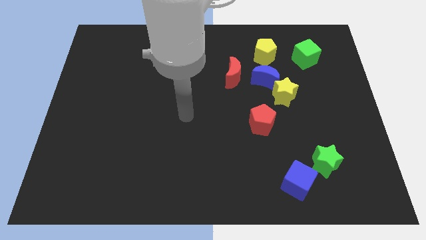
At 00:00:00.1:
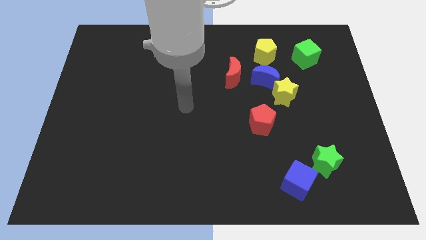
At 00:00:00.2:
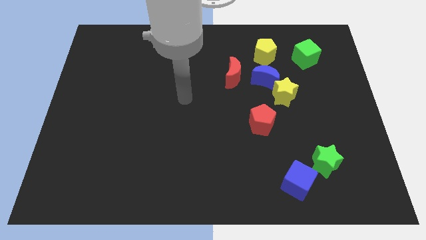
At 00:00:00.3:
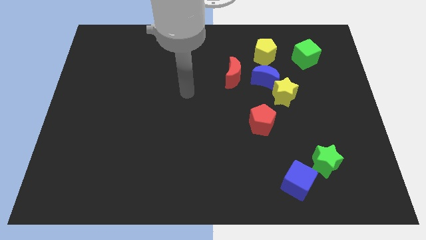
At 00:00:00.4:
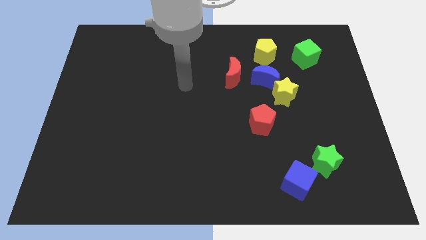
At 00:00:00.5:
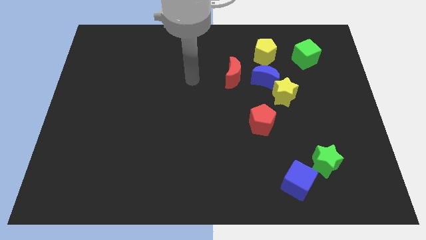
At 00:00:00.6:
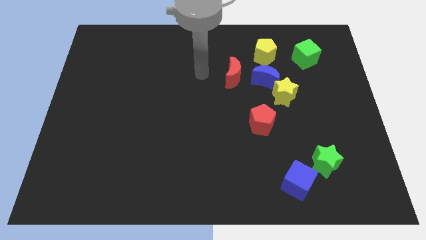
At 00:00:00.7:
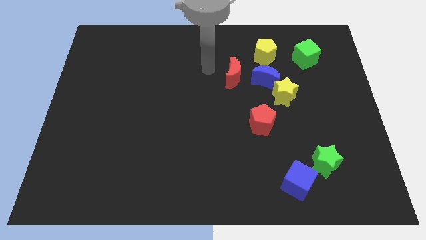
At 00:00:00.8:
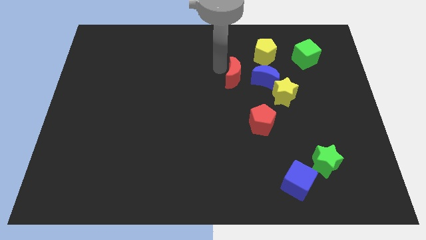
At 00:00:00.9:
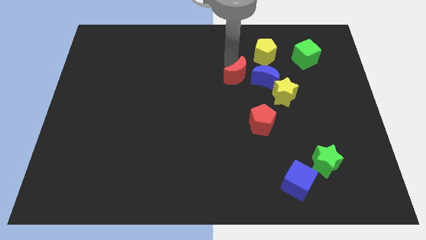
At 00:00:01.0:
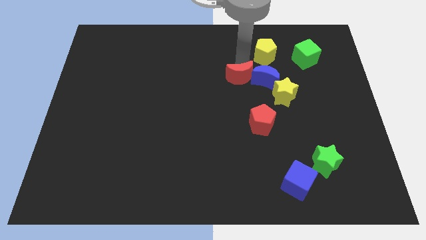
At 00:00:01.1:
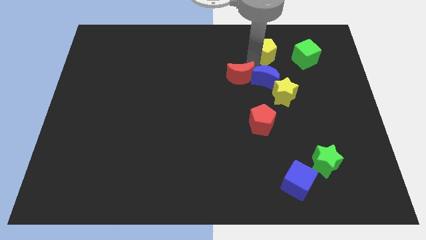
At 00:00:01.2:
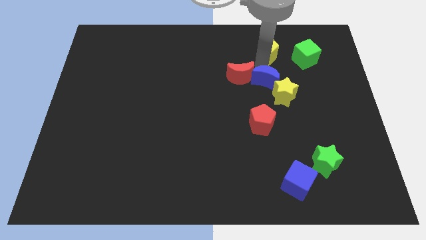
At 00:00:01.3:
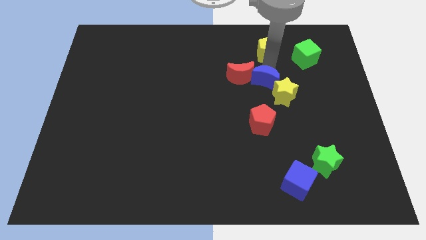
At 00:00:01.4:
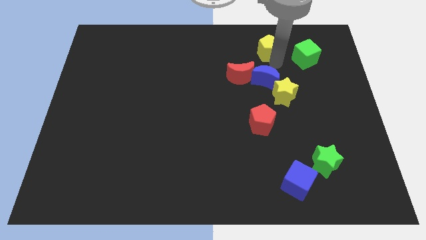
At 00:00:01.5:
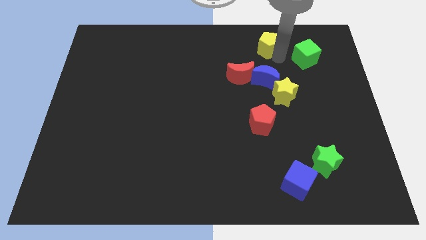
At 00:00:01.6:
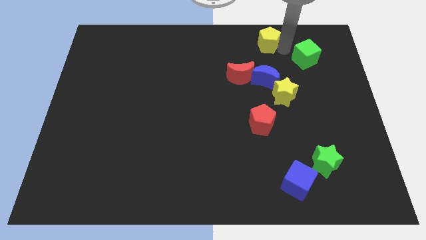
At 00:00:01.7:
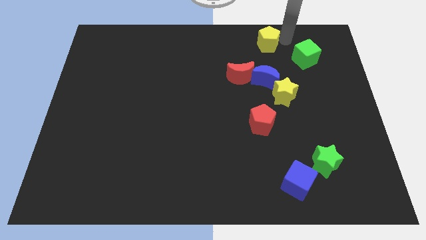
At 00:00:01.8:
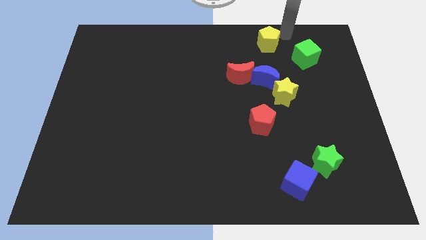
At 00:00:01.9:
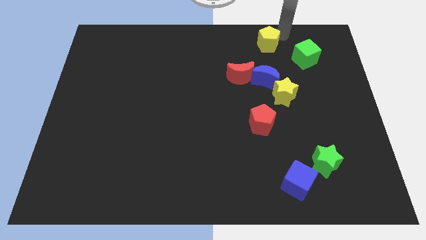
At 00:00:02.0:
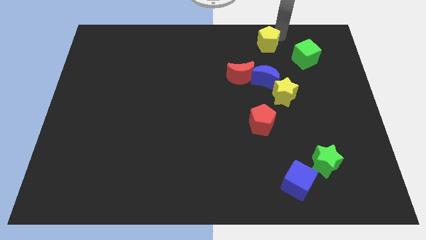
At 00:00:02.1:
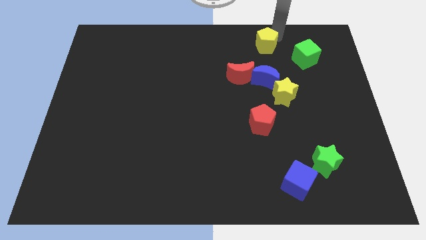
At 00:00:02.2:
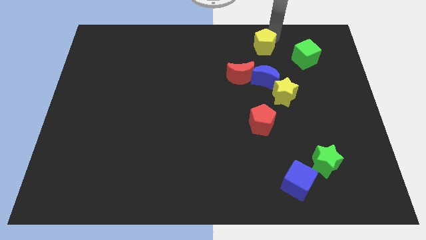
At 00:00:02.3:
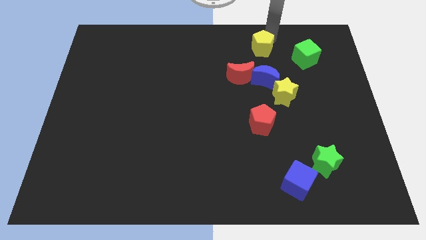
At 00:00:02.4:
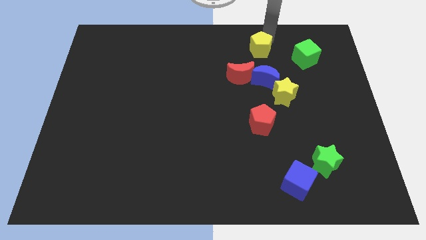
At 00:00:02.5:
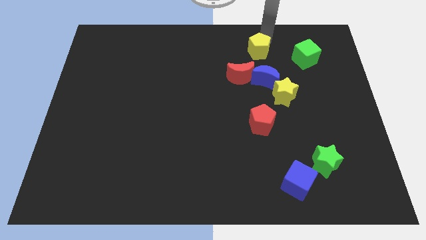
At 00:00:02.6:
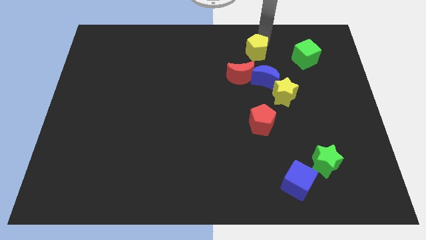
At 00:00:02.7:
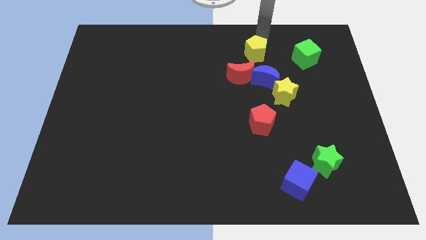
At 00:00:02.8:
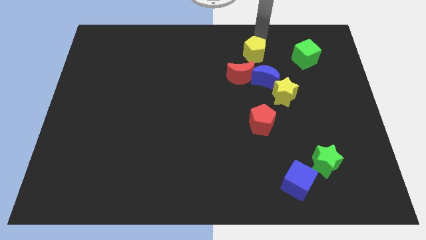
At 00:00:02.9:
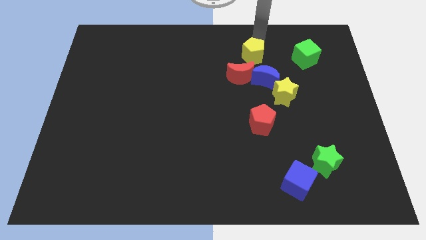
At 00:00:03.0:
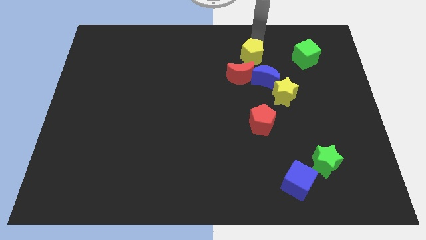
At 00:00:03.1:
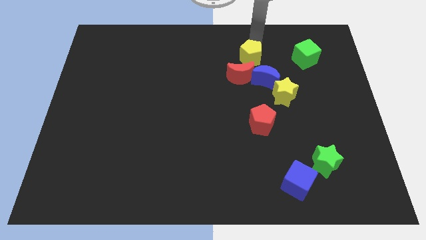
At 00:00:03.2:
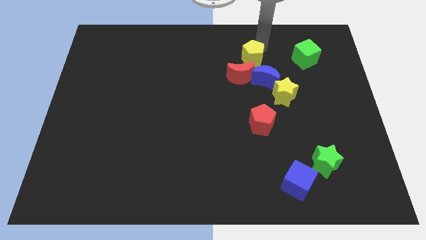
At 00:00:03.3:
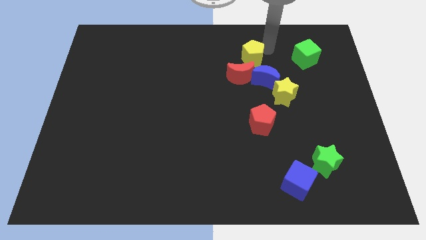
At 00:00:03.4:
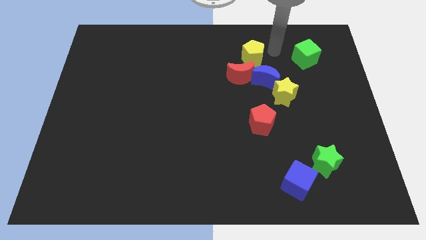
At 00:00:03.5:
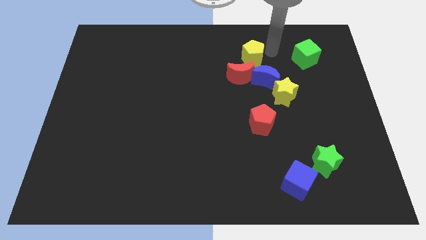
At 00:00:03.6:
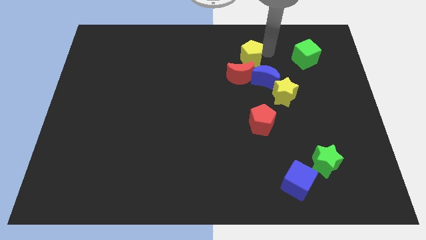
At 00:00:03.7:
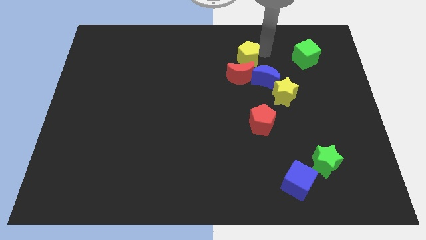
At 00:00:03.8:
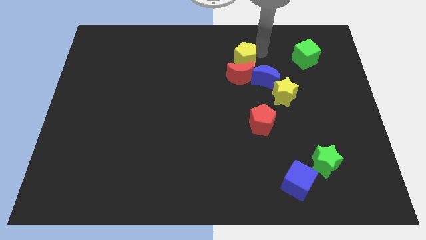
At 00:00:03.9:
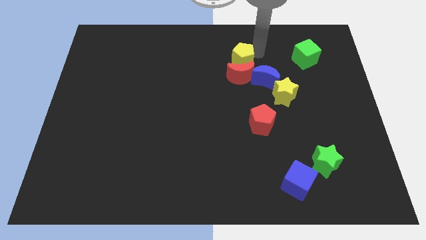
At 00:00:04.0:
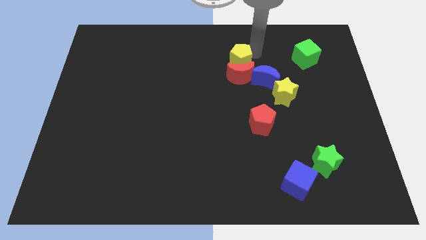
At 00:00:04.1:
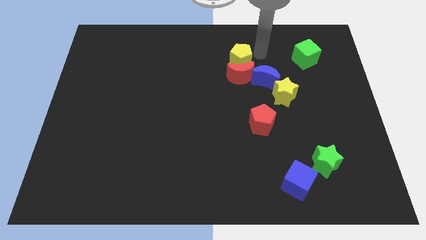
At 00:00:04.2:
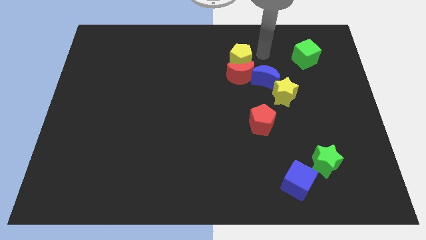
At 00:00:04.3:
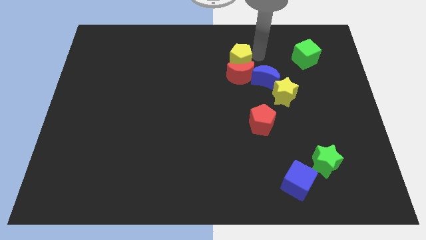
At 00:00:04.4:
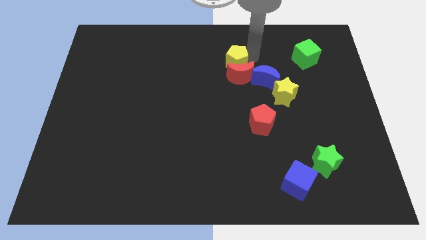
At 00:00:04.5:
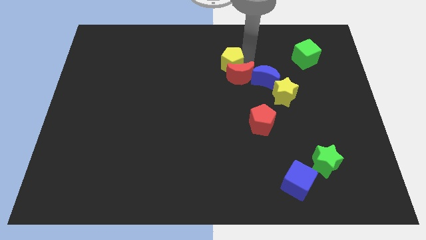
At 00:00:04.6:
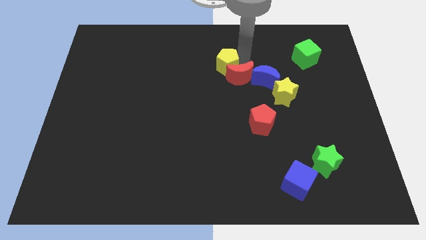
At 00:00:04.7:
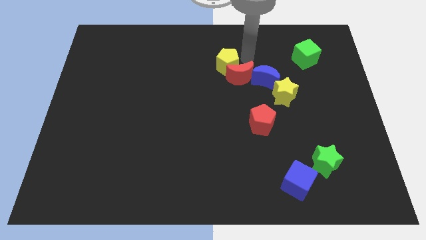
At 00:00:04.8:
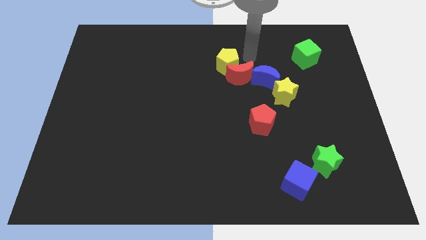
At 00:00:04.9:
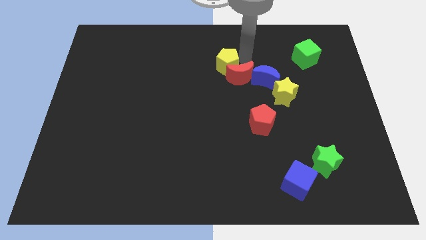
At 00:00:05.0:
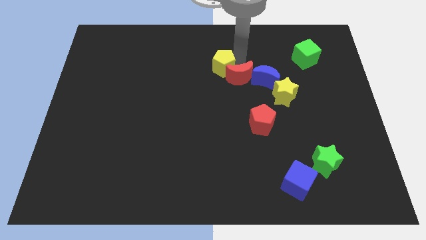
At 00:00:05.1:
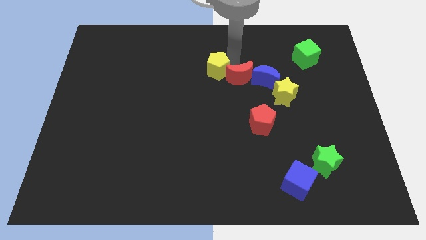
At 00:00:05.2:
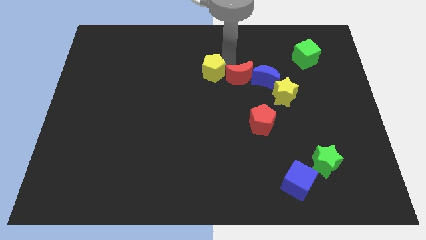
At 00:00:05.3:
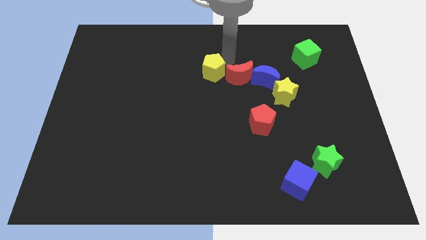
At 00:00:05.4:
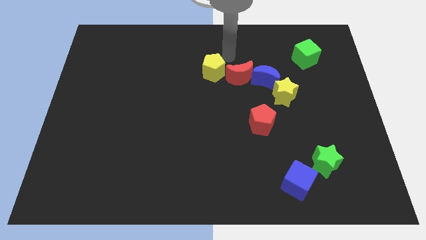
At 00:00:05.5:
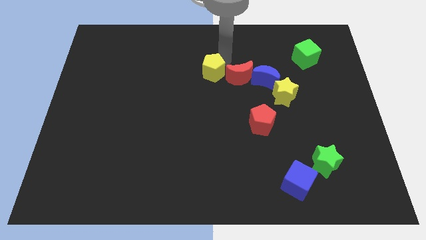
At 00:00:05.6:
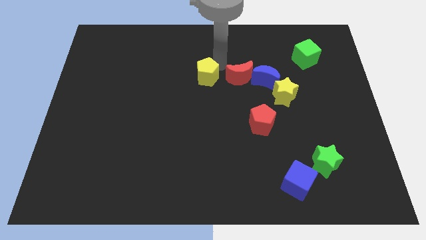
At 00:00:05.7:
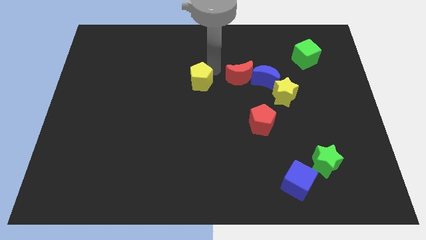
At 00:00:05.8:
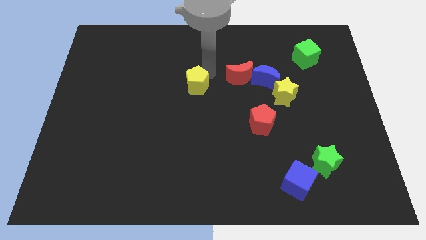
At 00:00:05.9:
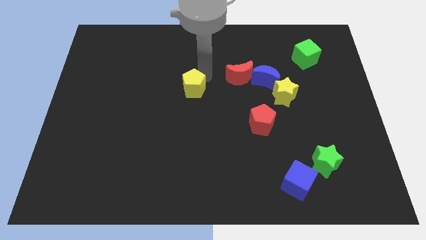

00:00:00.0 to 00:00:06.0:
push the yellow pentagon diagonally down and to the left

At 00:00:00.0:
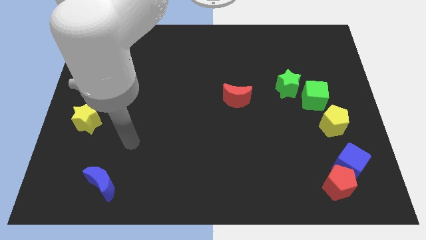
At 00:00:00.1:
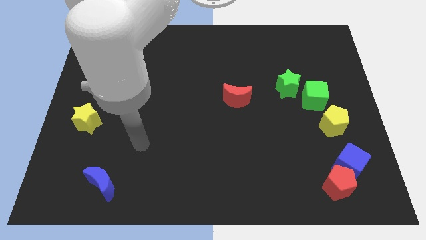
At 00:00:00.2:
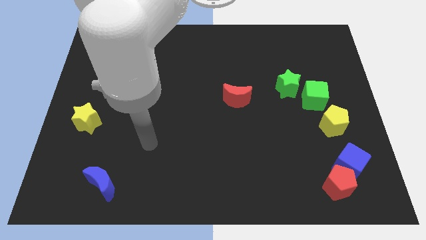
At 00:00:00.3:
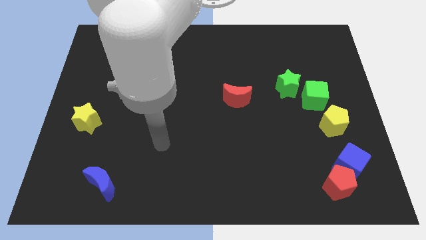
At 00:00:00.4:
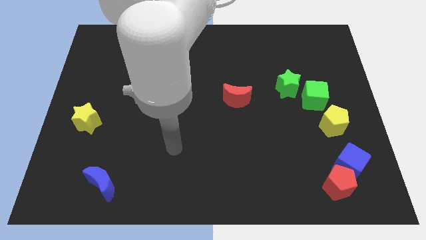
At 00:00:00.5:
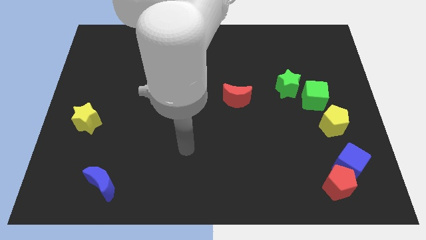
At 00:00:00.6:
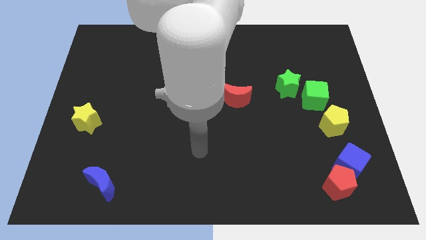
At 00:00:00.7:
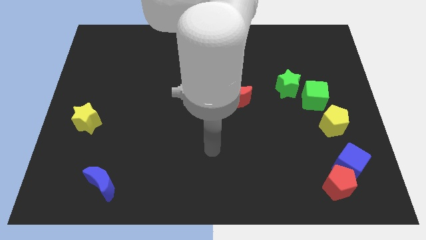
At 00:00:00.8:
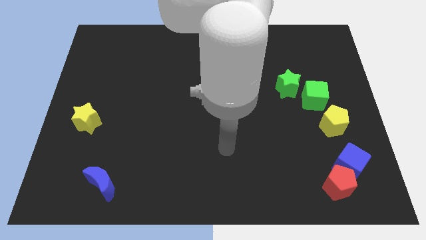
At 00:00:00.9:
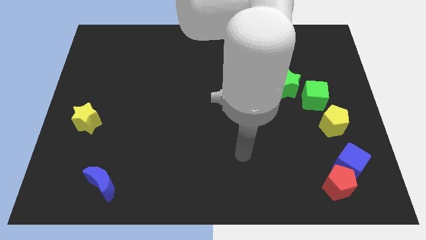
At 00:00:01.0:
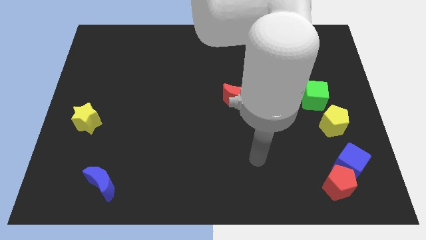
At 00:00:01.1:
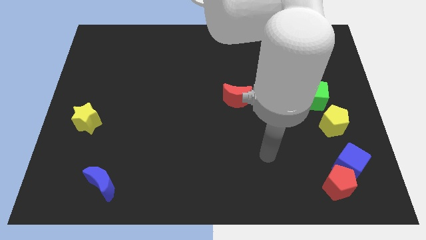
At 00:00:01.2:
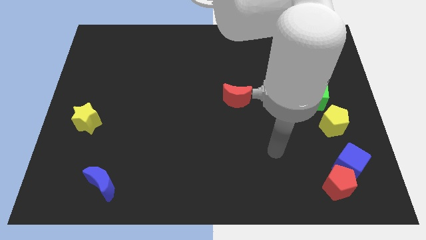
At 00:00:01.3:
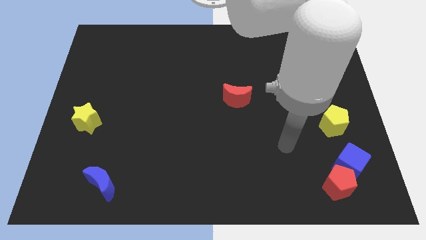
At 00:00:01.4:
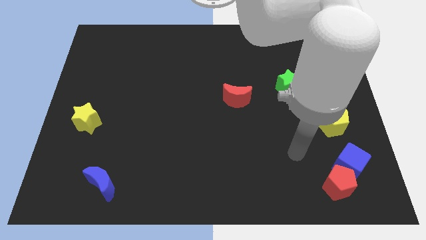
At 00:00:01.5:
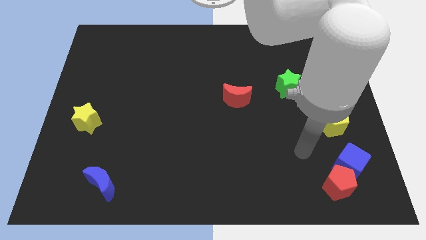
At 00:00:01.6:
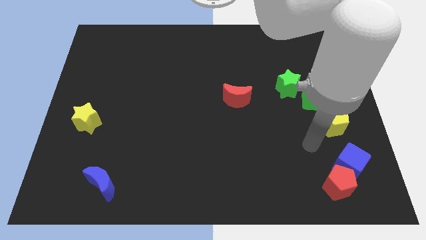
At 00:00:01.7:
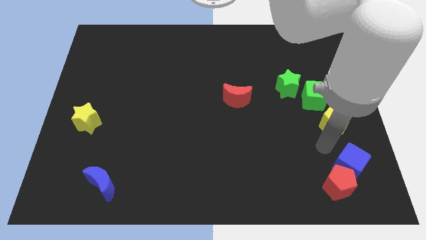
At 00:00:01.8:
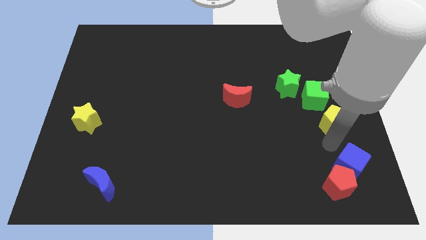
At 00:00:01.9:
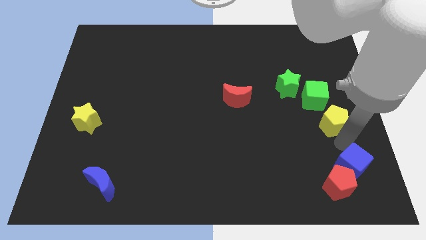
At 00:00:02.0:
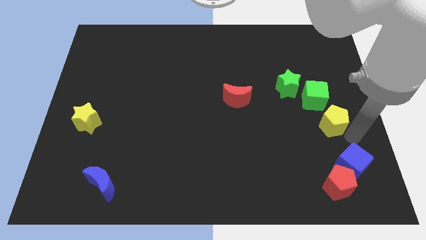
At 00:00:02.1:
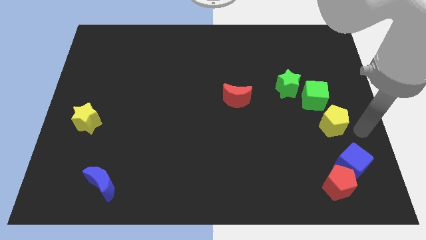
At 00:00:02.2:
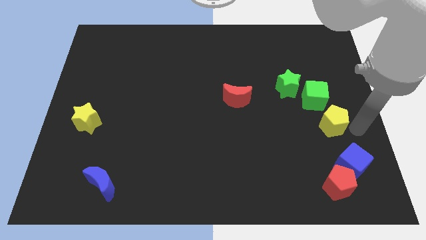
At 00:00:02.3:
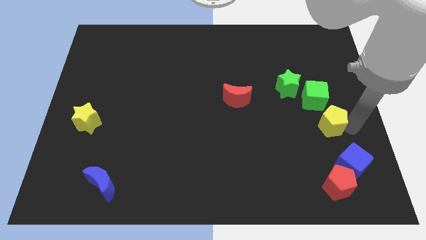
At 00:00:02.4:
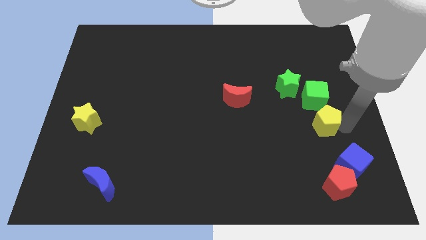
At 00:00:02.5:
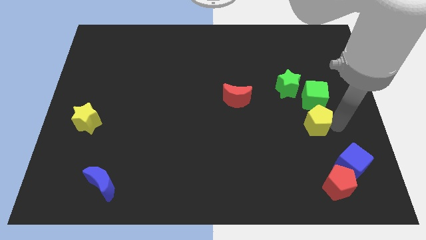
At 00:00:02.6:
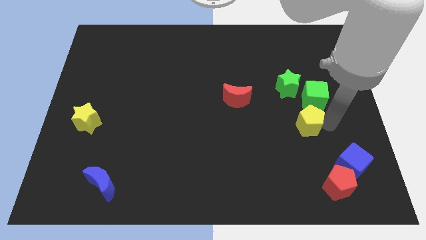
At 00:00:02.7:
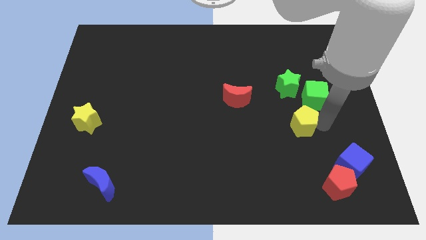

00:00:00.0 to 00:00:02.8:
move the yellow pentagon somewhat left
